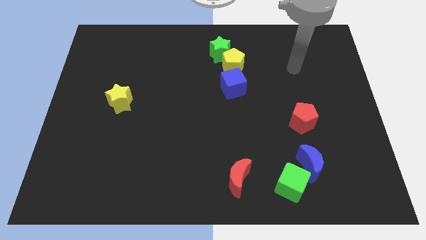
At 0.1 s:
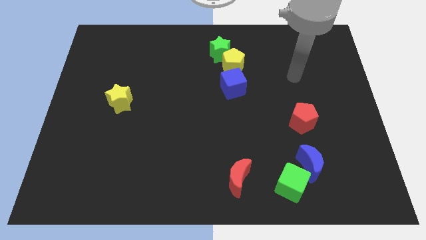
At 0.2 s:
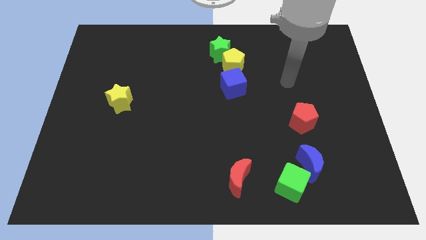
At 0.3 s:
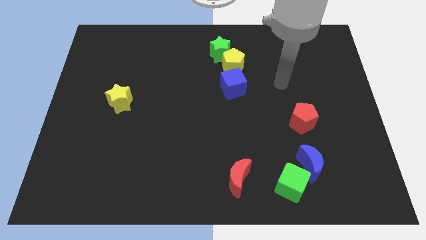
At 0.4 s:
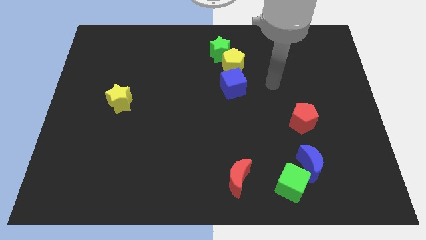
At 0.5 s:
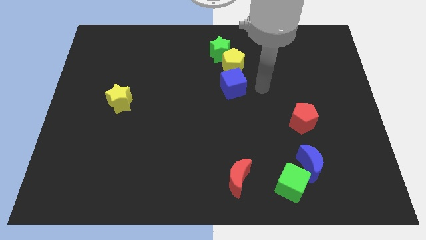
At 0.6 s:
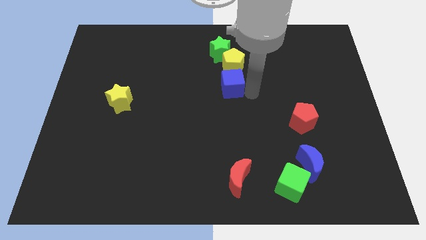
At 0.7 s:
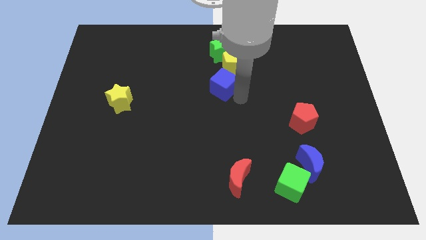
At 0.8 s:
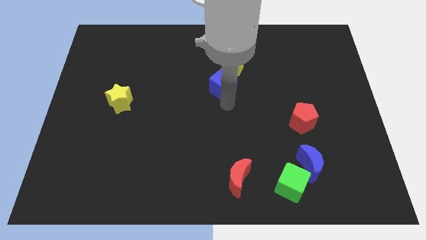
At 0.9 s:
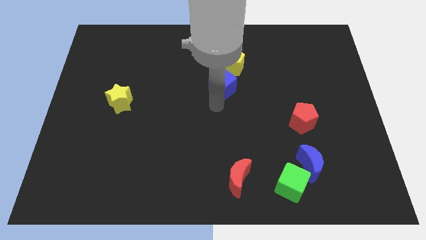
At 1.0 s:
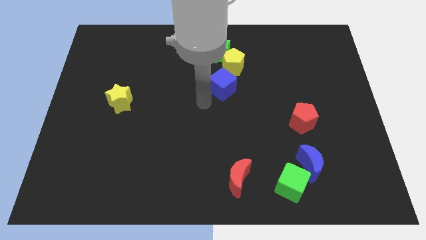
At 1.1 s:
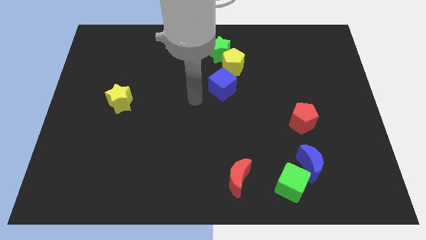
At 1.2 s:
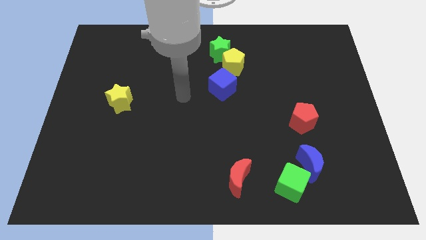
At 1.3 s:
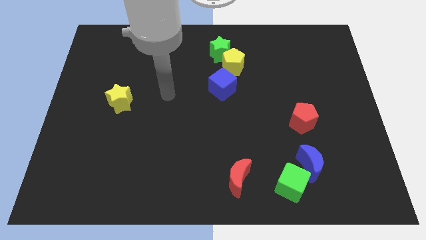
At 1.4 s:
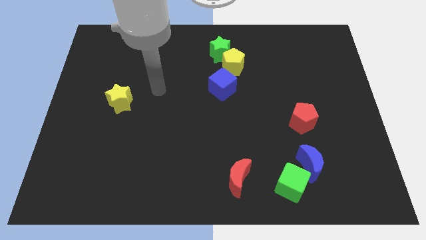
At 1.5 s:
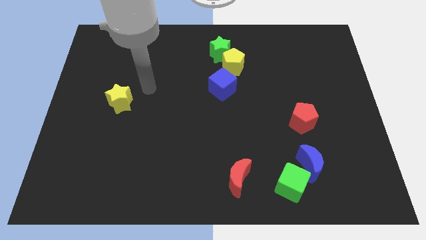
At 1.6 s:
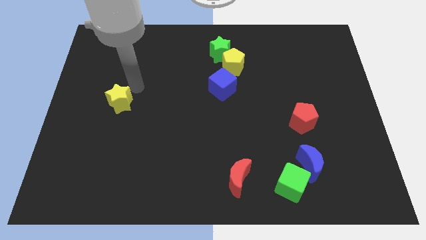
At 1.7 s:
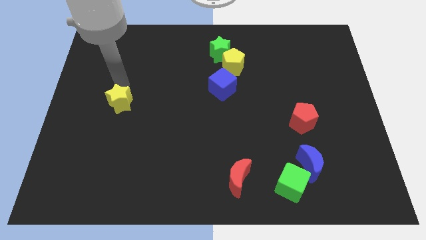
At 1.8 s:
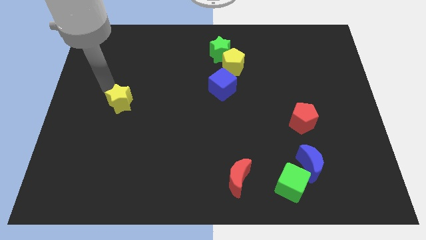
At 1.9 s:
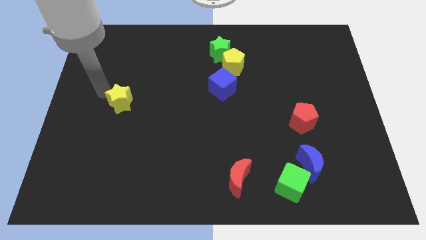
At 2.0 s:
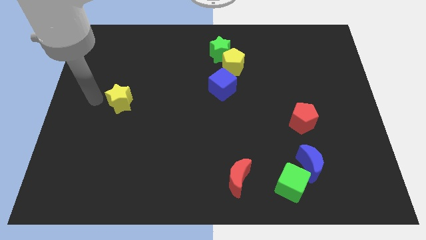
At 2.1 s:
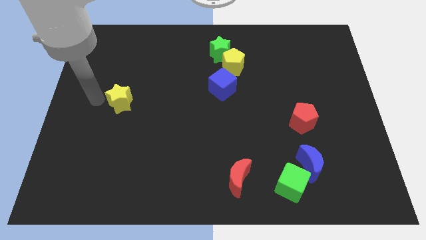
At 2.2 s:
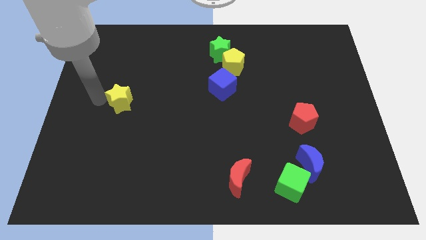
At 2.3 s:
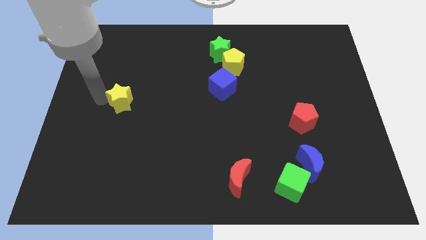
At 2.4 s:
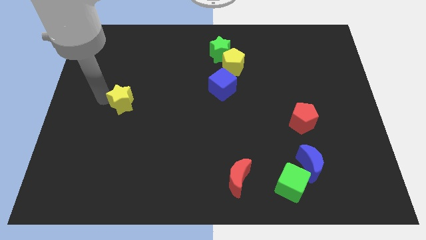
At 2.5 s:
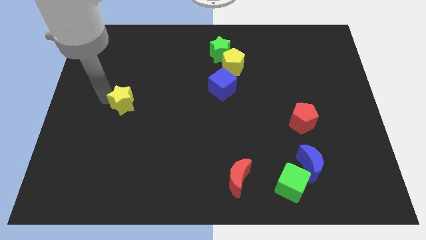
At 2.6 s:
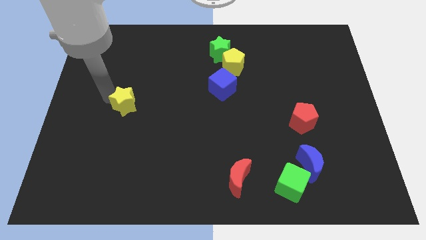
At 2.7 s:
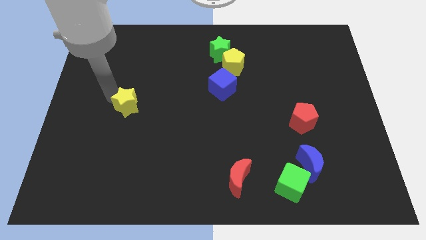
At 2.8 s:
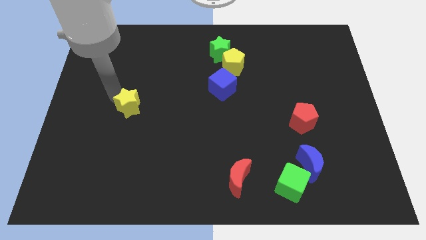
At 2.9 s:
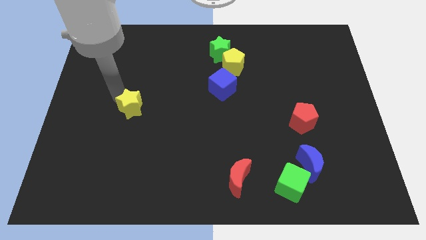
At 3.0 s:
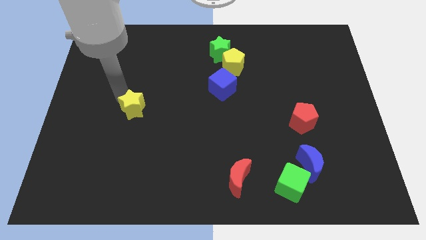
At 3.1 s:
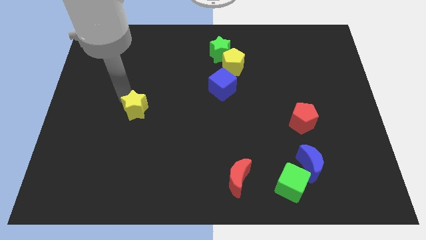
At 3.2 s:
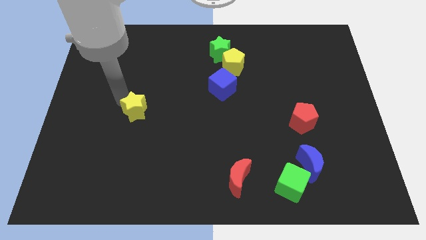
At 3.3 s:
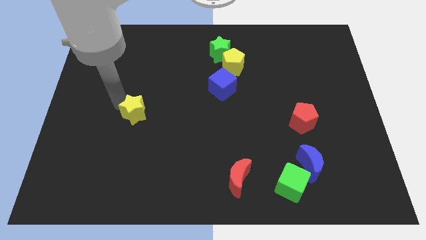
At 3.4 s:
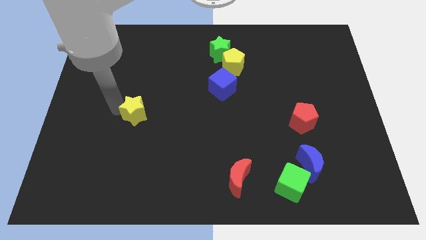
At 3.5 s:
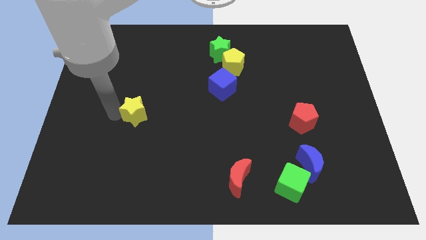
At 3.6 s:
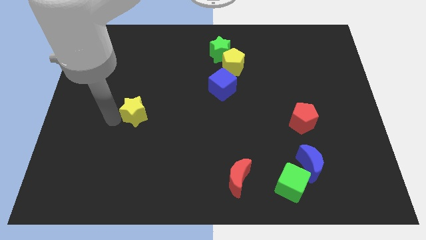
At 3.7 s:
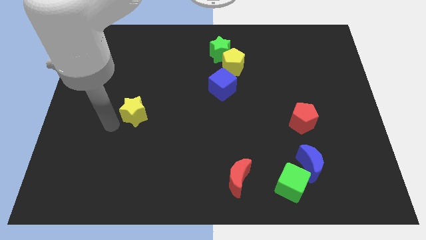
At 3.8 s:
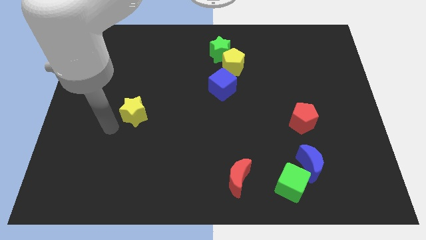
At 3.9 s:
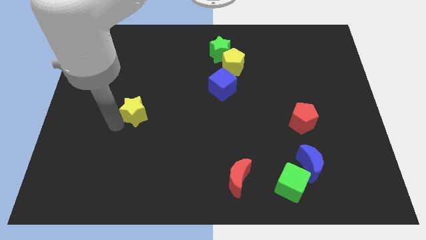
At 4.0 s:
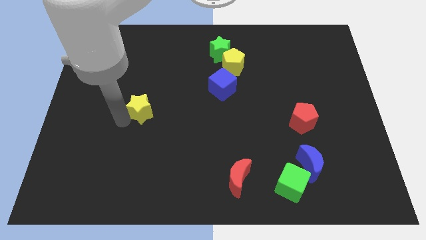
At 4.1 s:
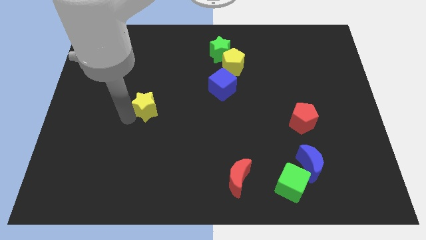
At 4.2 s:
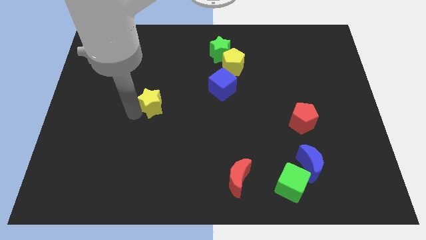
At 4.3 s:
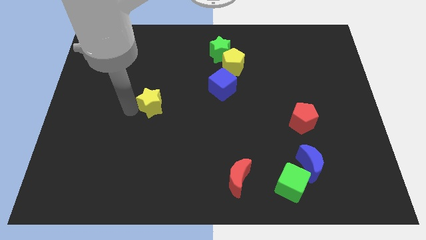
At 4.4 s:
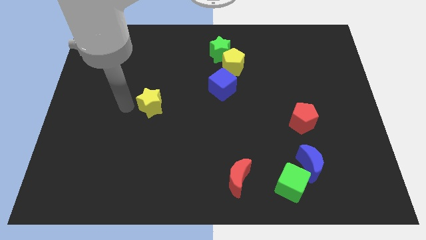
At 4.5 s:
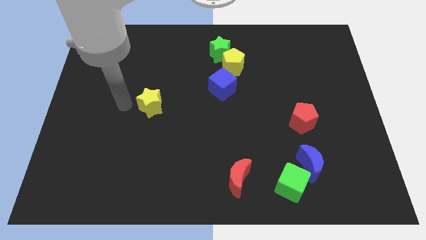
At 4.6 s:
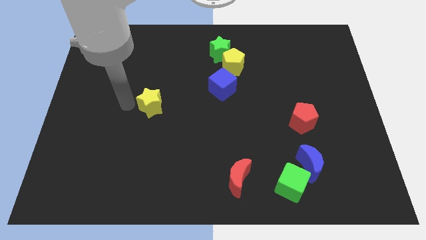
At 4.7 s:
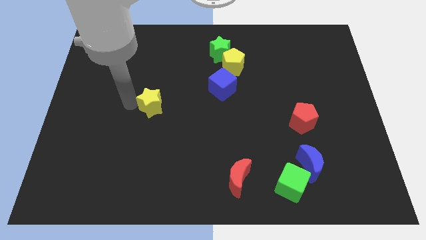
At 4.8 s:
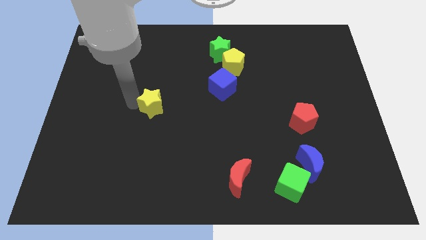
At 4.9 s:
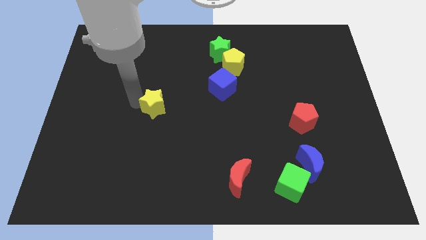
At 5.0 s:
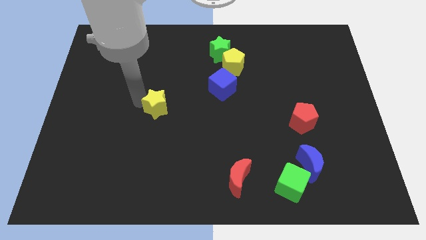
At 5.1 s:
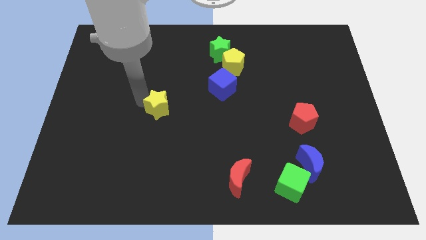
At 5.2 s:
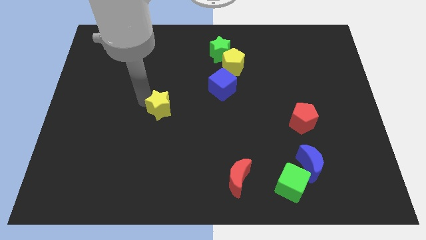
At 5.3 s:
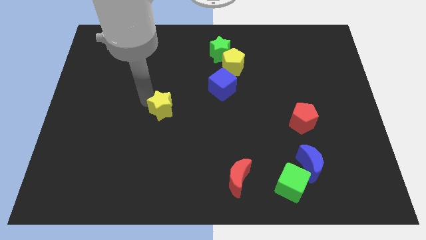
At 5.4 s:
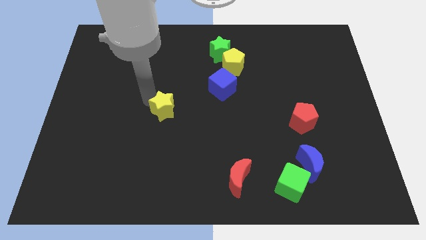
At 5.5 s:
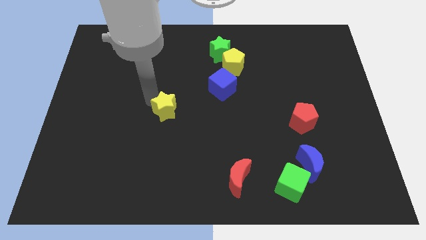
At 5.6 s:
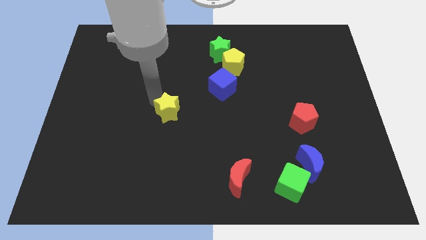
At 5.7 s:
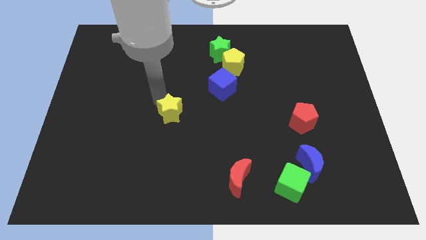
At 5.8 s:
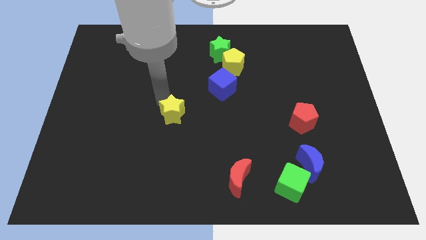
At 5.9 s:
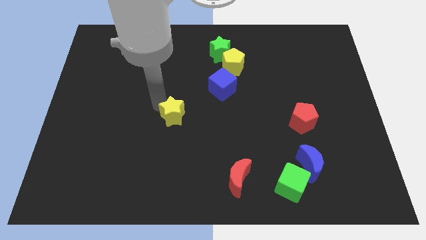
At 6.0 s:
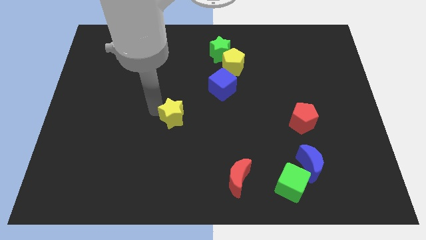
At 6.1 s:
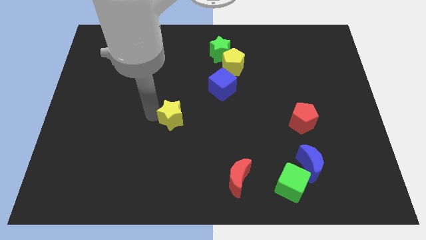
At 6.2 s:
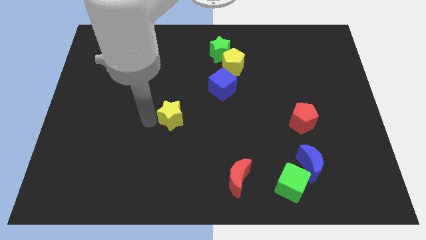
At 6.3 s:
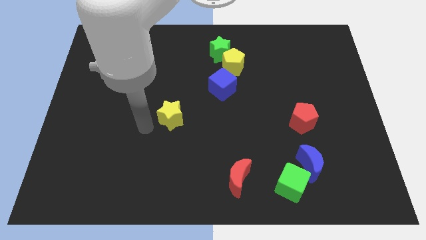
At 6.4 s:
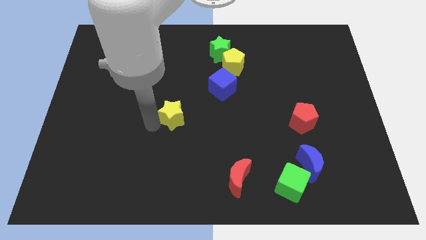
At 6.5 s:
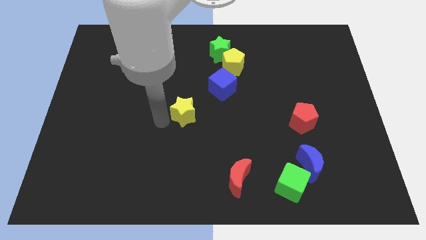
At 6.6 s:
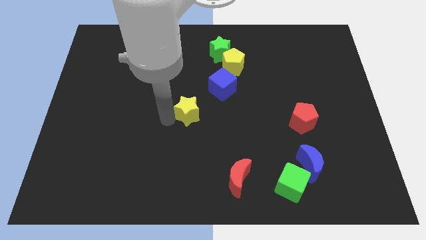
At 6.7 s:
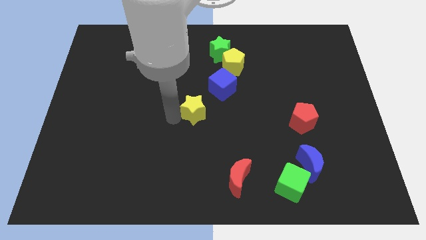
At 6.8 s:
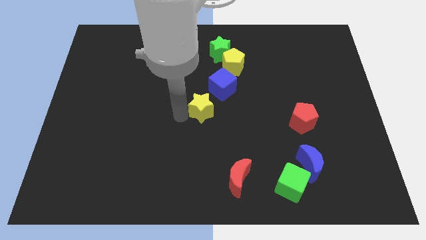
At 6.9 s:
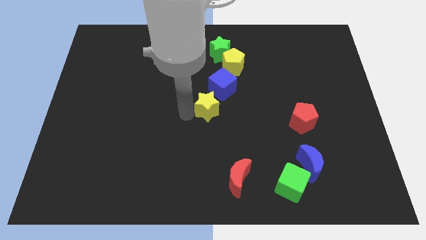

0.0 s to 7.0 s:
move the yellow star to the right

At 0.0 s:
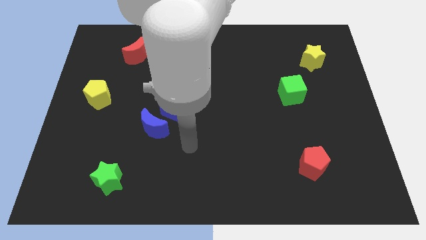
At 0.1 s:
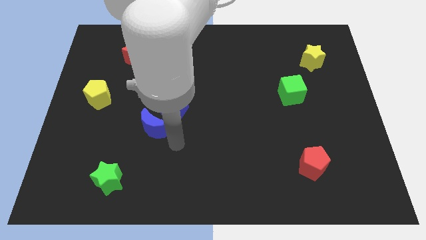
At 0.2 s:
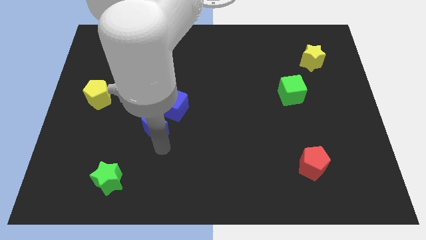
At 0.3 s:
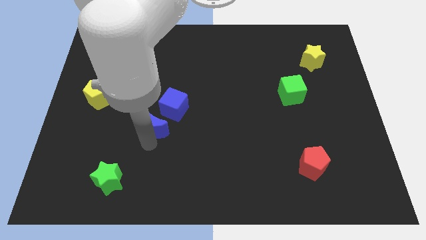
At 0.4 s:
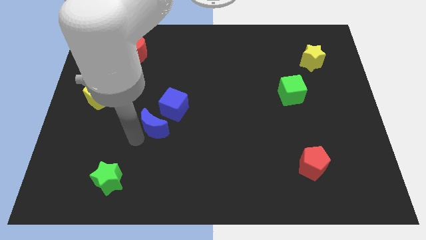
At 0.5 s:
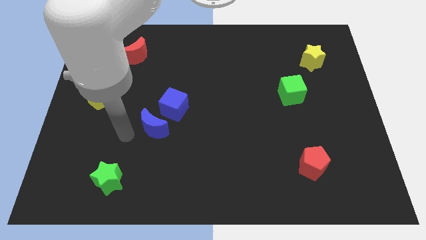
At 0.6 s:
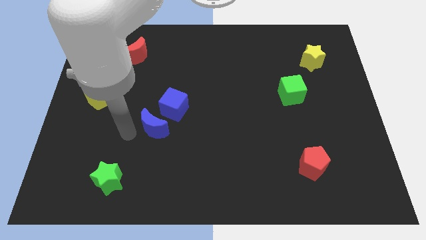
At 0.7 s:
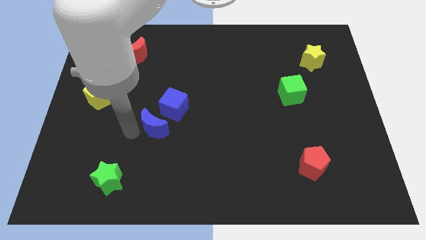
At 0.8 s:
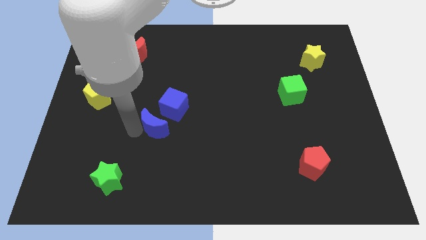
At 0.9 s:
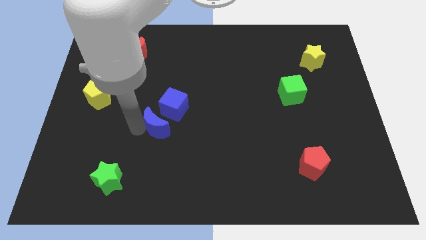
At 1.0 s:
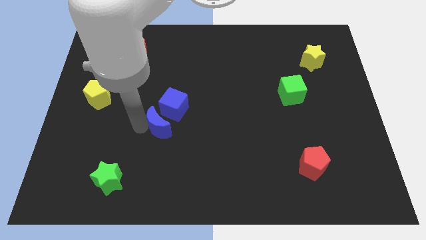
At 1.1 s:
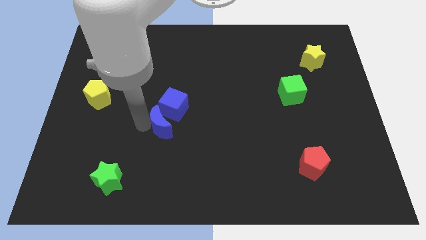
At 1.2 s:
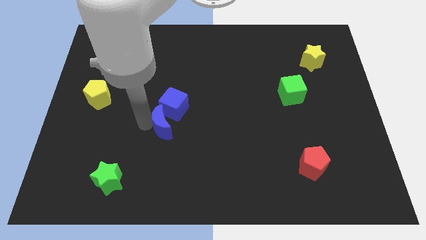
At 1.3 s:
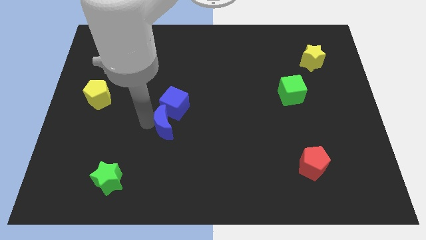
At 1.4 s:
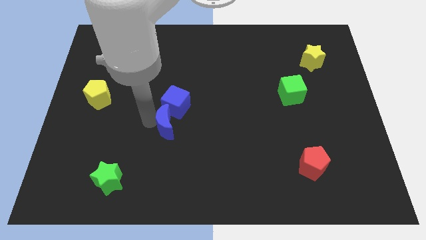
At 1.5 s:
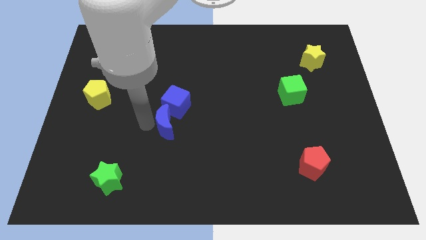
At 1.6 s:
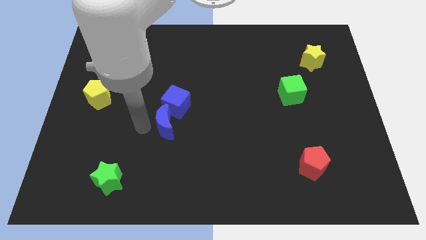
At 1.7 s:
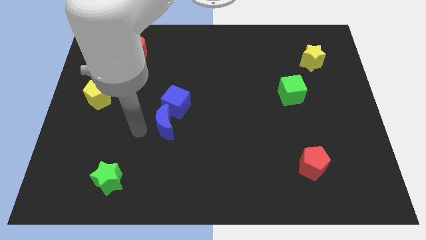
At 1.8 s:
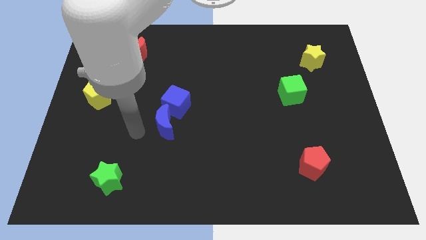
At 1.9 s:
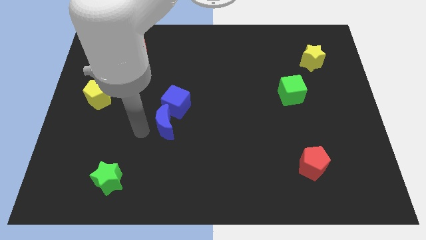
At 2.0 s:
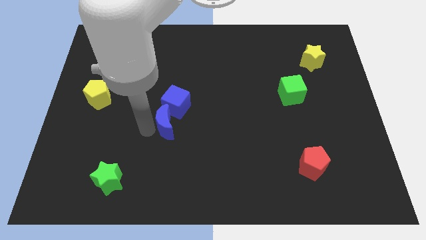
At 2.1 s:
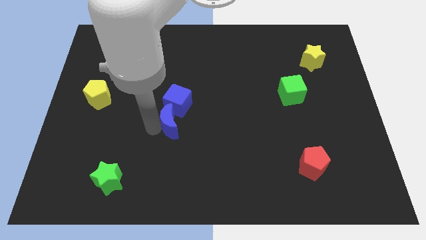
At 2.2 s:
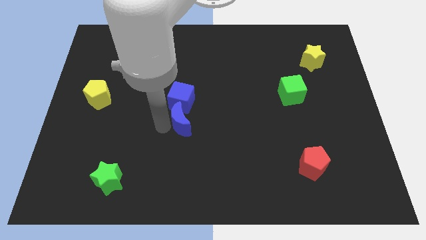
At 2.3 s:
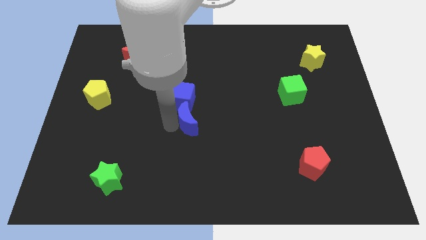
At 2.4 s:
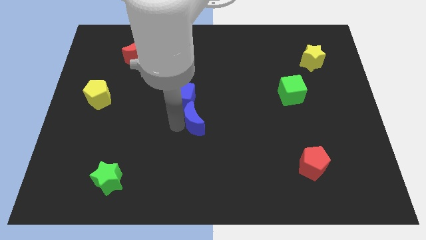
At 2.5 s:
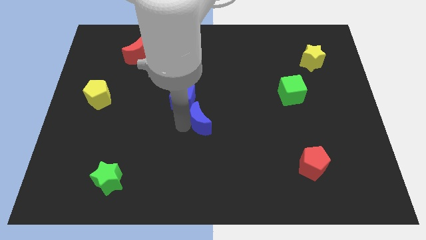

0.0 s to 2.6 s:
push the blue moon upwards and right somewhat
